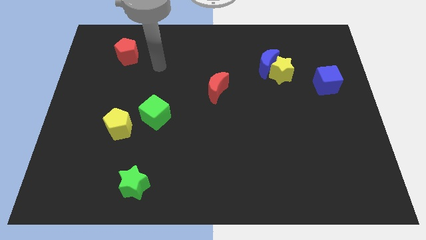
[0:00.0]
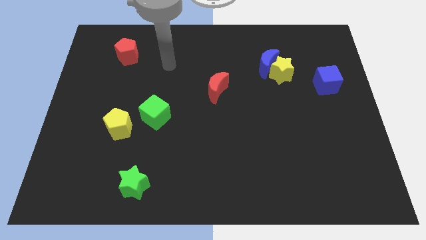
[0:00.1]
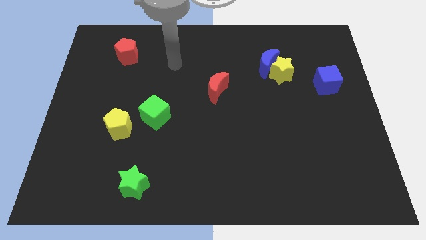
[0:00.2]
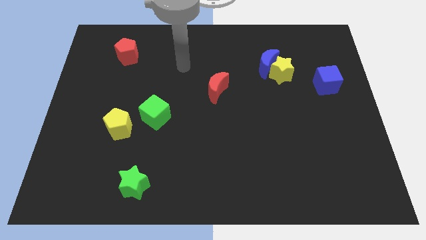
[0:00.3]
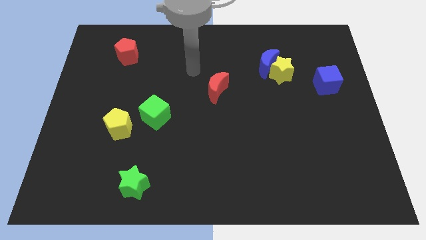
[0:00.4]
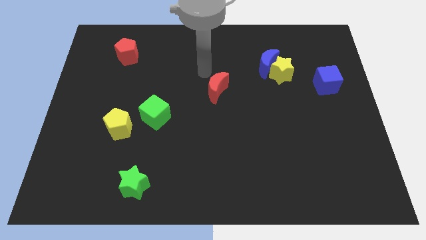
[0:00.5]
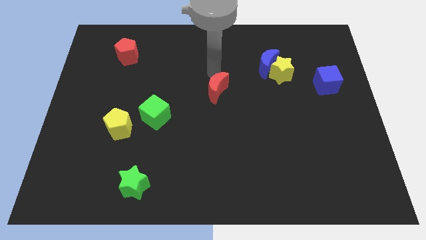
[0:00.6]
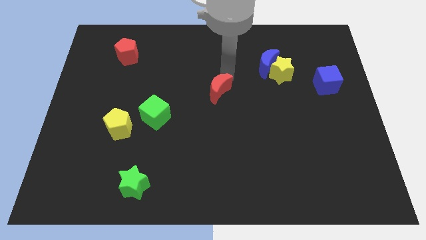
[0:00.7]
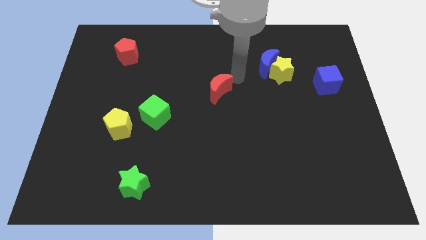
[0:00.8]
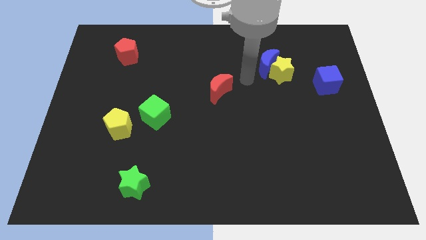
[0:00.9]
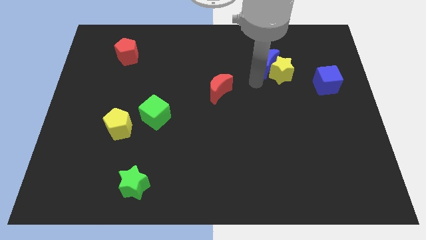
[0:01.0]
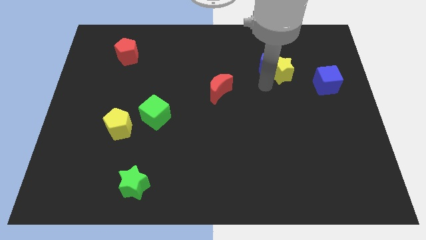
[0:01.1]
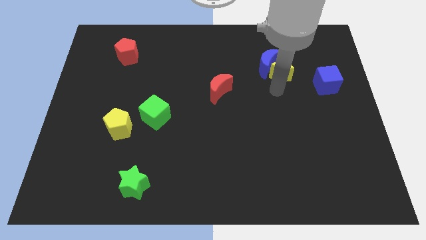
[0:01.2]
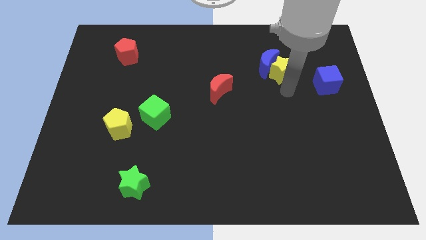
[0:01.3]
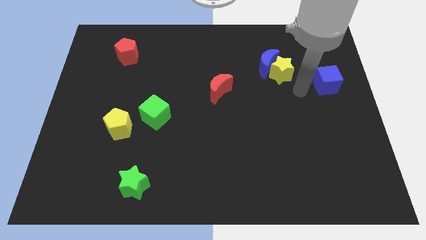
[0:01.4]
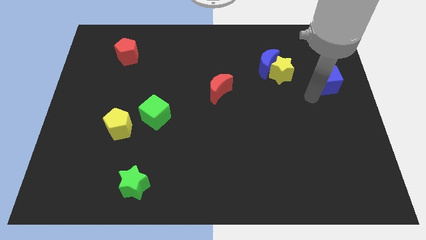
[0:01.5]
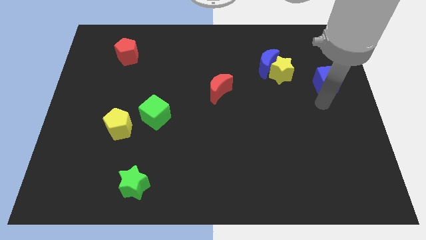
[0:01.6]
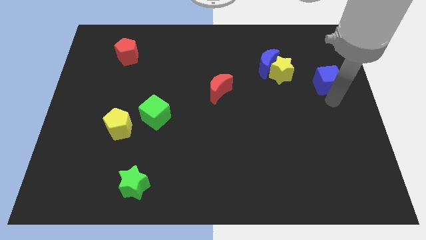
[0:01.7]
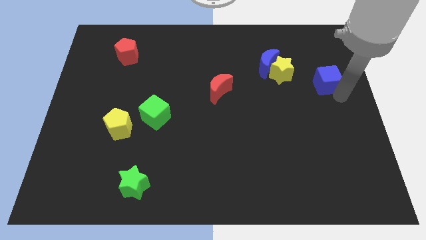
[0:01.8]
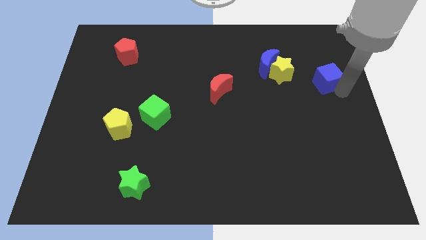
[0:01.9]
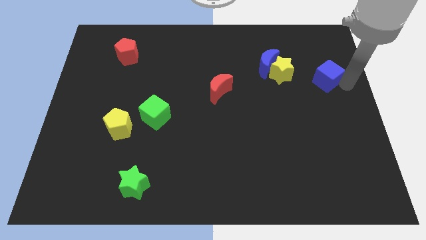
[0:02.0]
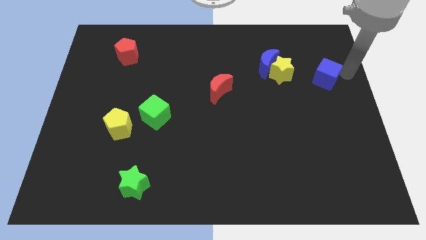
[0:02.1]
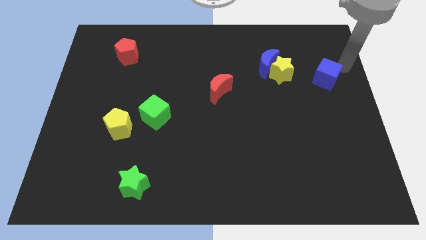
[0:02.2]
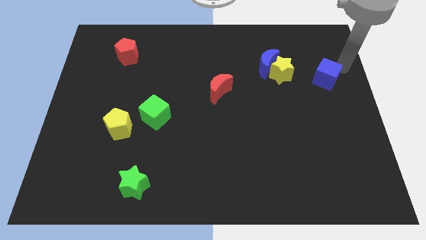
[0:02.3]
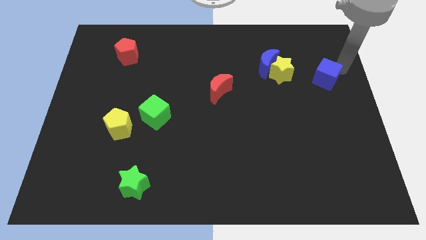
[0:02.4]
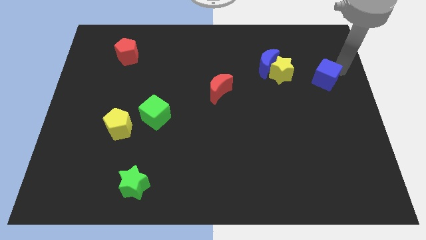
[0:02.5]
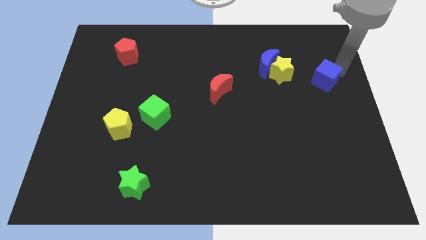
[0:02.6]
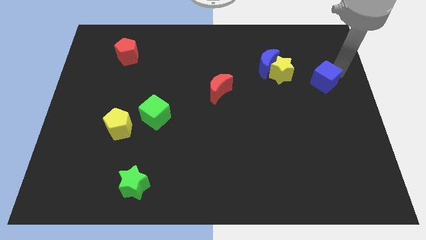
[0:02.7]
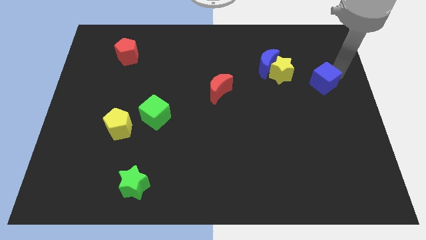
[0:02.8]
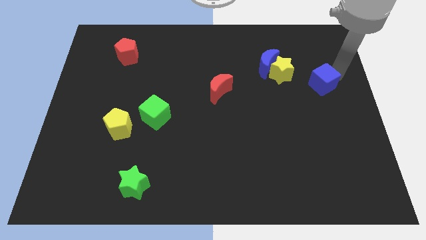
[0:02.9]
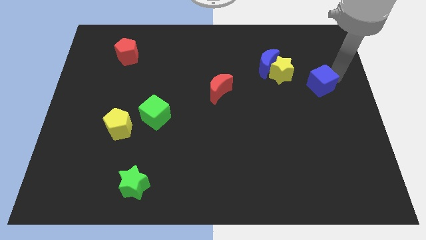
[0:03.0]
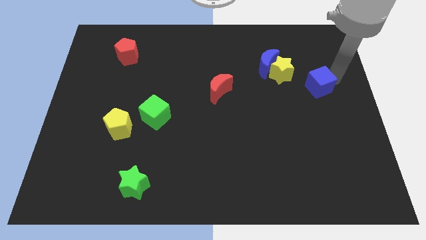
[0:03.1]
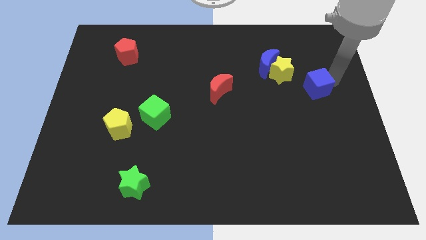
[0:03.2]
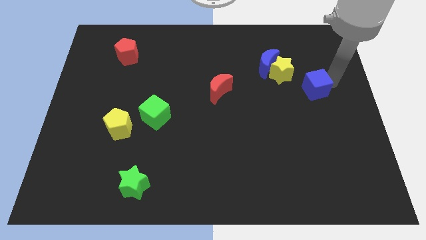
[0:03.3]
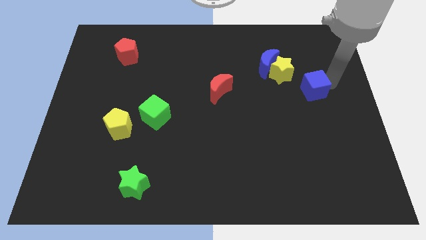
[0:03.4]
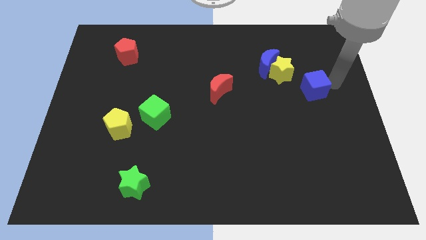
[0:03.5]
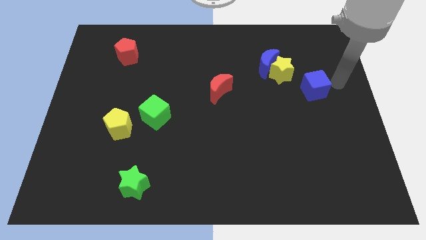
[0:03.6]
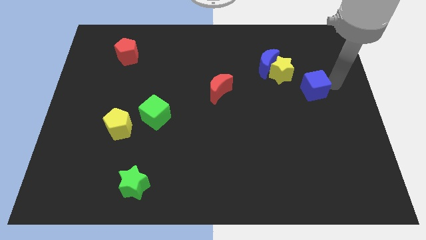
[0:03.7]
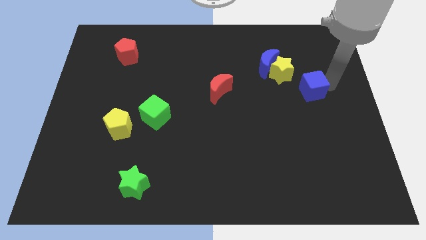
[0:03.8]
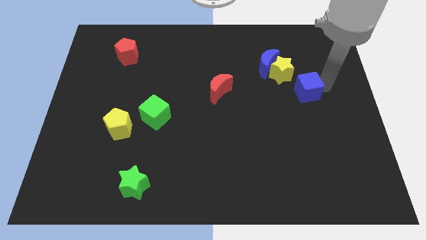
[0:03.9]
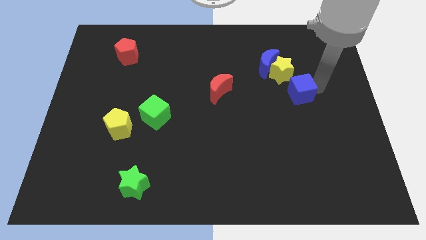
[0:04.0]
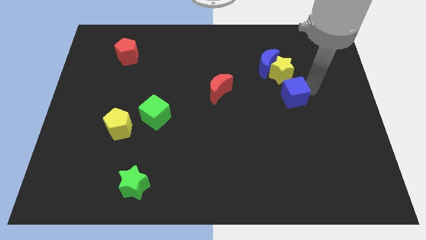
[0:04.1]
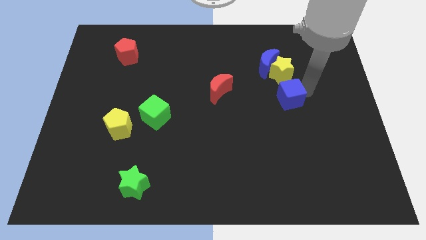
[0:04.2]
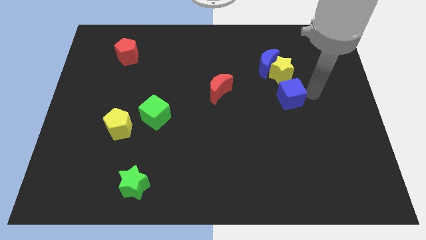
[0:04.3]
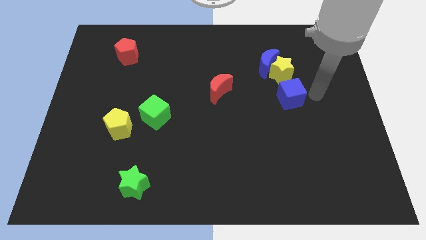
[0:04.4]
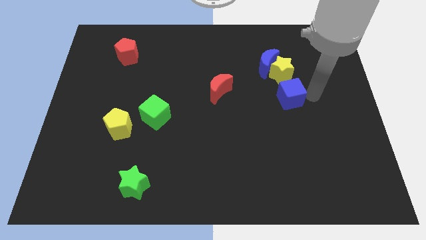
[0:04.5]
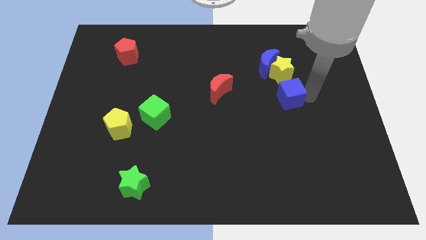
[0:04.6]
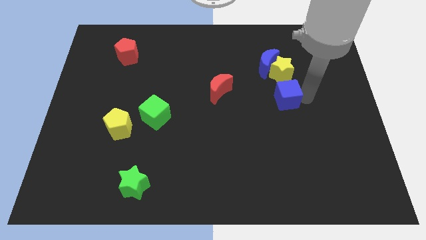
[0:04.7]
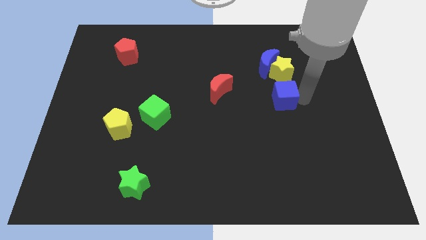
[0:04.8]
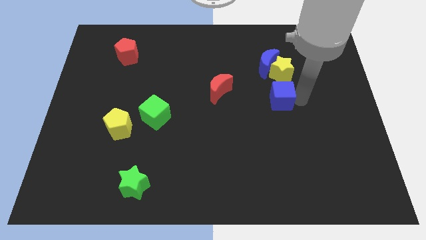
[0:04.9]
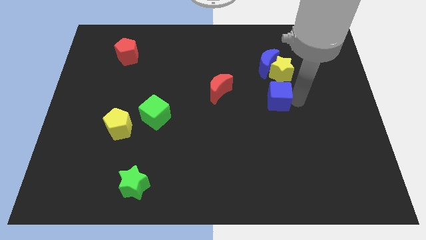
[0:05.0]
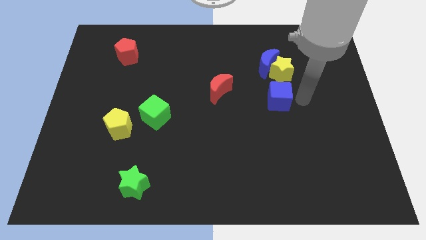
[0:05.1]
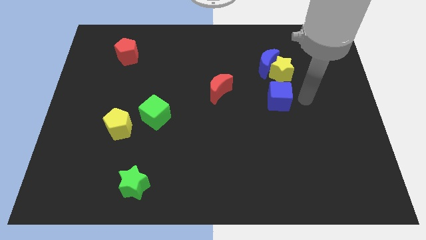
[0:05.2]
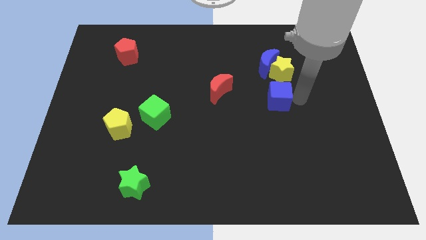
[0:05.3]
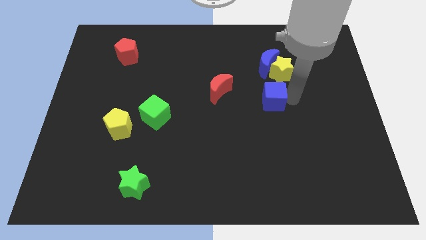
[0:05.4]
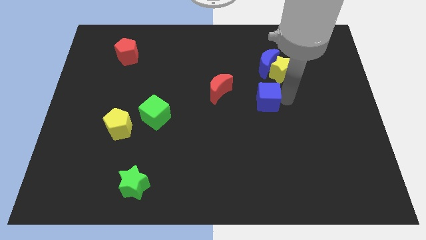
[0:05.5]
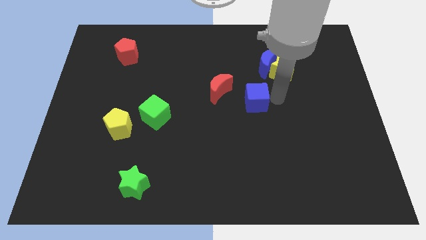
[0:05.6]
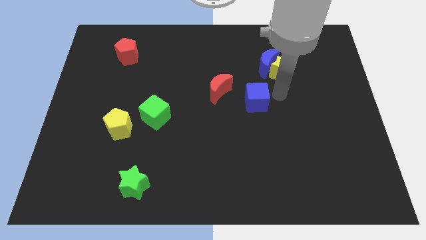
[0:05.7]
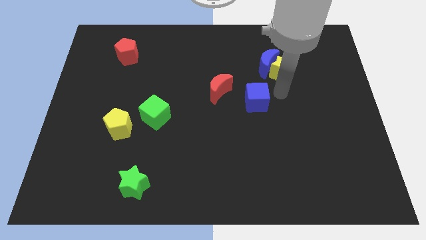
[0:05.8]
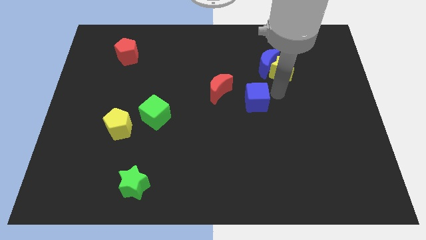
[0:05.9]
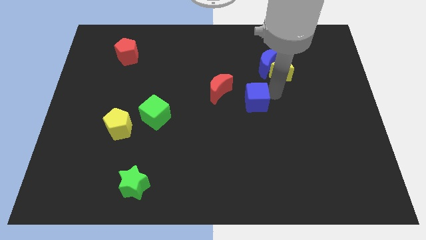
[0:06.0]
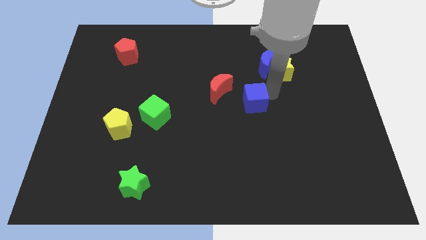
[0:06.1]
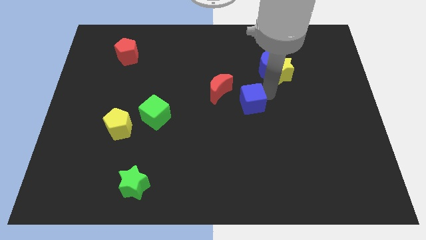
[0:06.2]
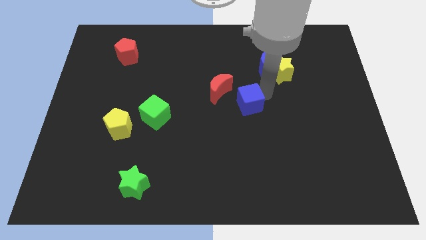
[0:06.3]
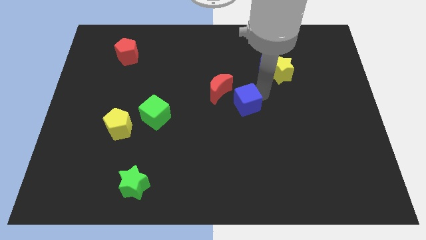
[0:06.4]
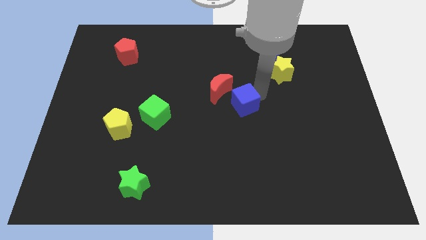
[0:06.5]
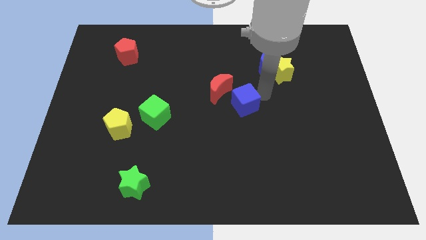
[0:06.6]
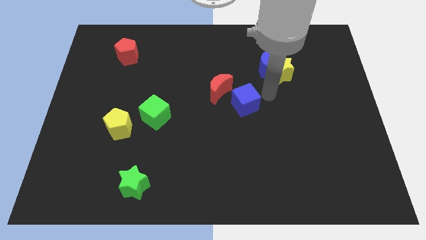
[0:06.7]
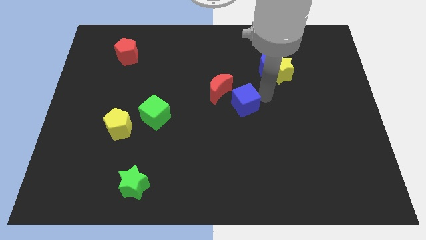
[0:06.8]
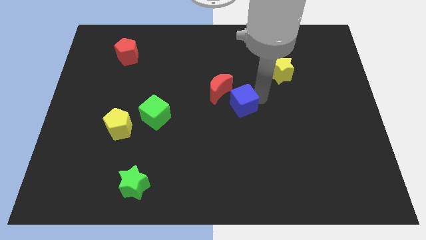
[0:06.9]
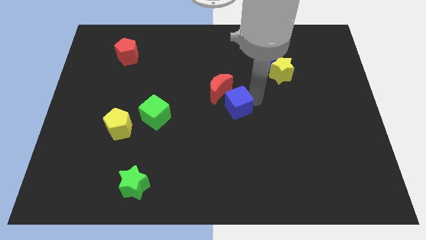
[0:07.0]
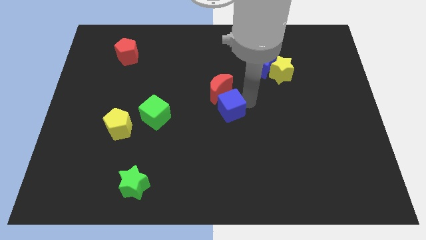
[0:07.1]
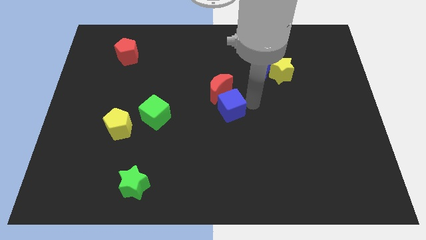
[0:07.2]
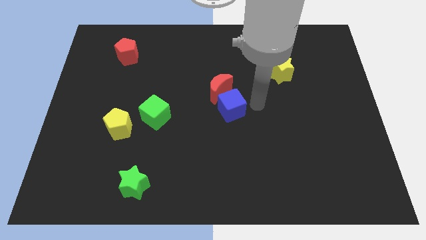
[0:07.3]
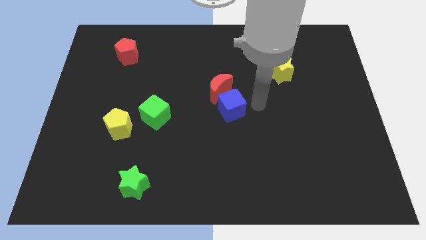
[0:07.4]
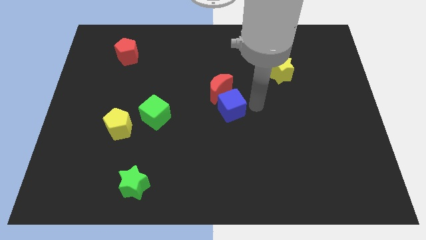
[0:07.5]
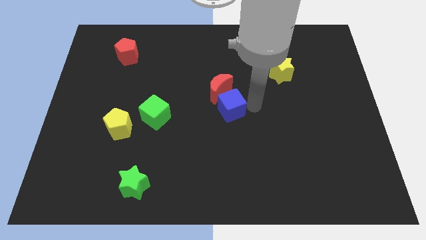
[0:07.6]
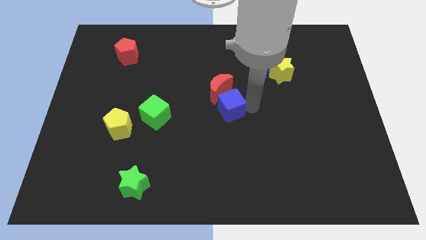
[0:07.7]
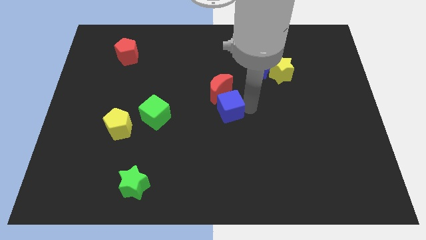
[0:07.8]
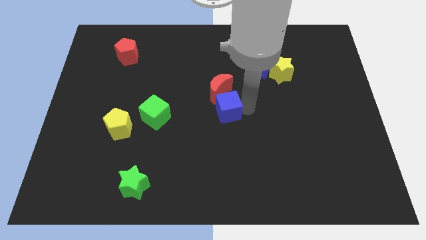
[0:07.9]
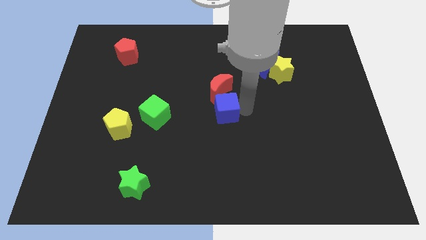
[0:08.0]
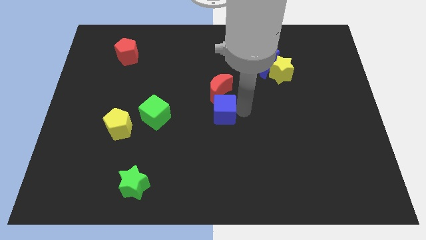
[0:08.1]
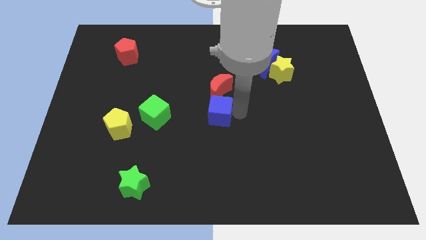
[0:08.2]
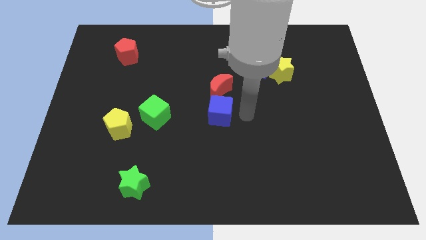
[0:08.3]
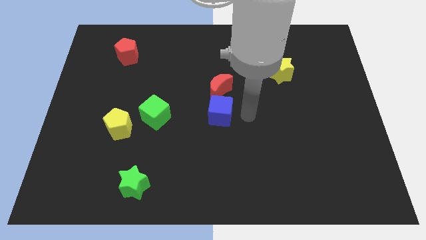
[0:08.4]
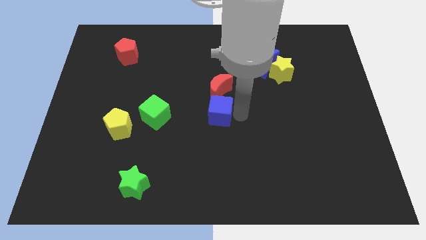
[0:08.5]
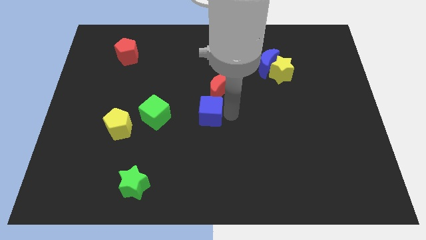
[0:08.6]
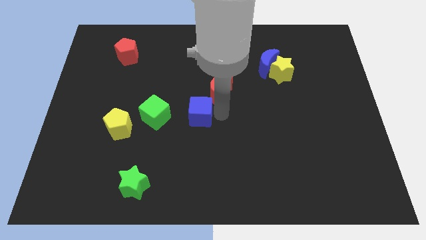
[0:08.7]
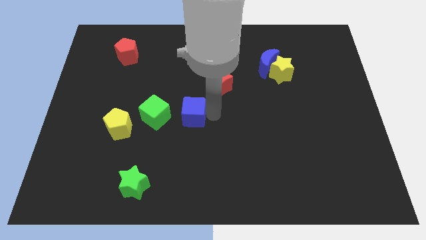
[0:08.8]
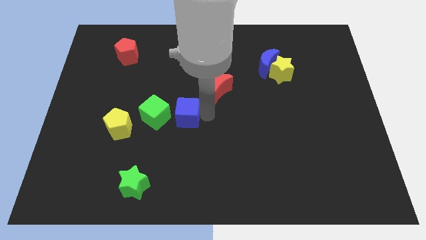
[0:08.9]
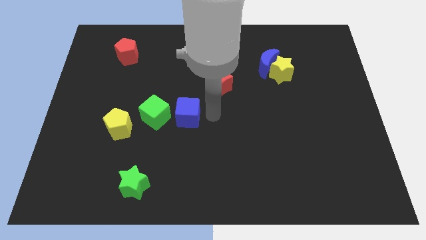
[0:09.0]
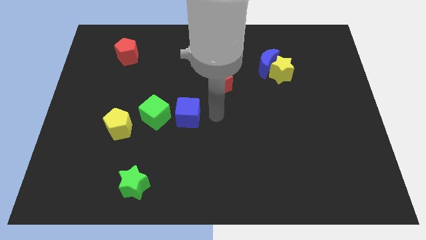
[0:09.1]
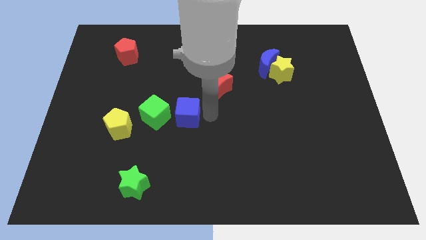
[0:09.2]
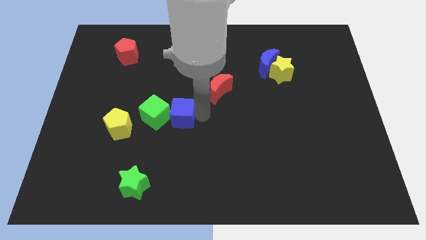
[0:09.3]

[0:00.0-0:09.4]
move the blue cube next to the green cube
